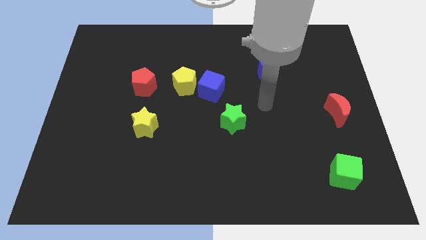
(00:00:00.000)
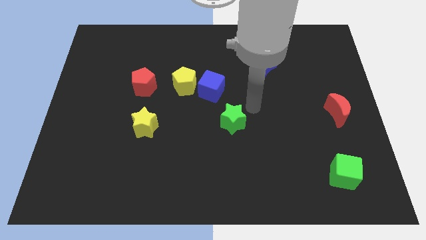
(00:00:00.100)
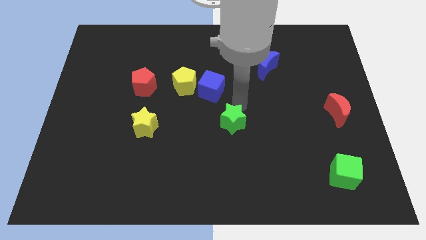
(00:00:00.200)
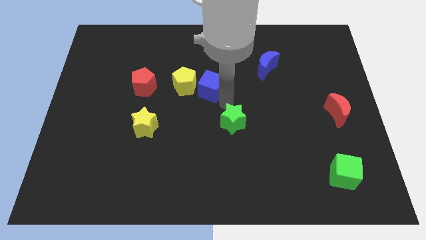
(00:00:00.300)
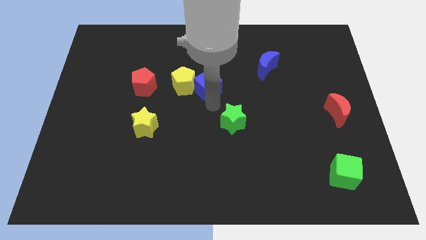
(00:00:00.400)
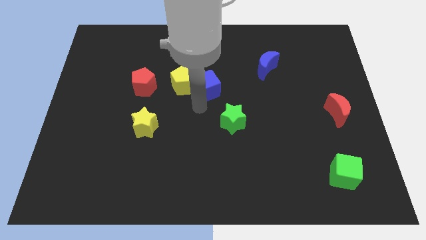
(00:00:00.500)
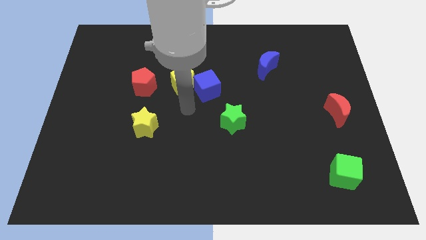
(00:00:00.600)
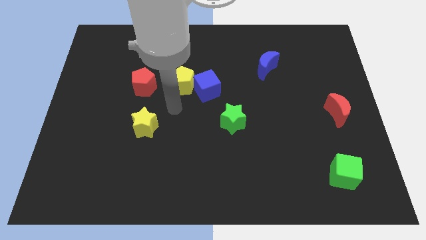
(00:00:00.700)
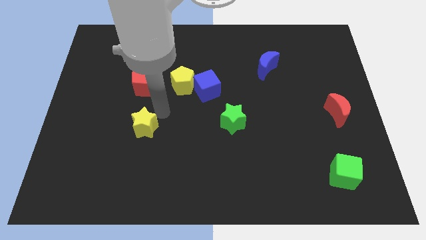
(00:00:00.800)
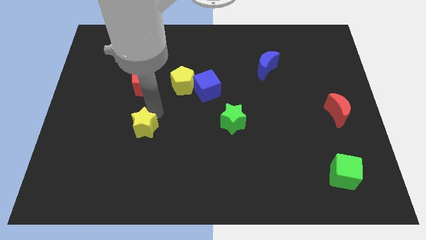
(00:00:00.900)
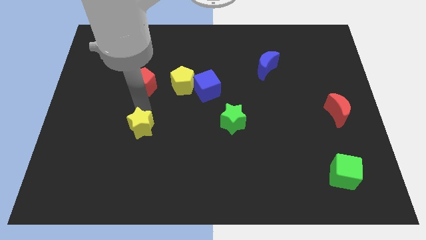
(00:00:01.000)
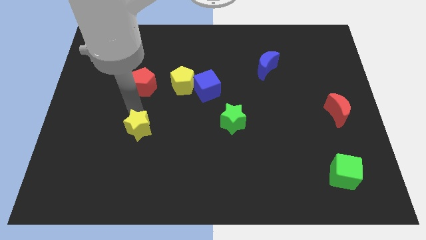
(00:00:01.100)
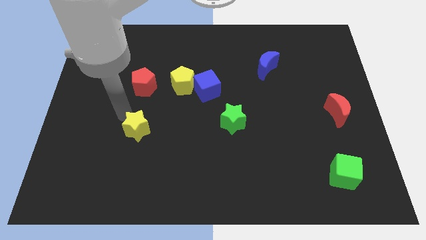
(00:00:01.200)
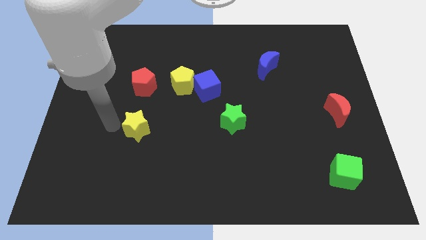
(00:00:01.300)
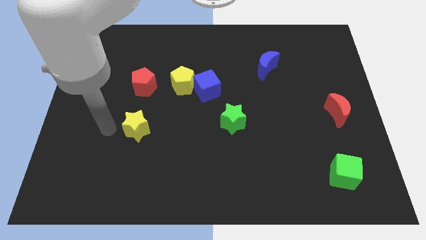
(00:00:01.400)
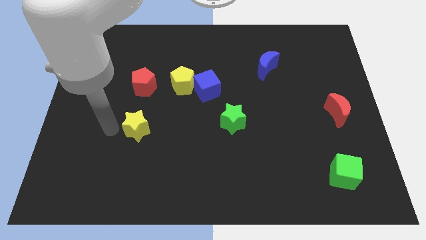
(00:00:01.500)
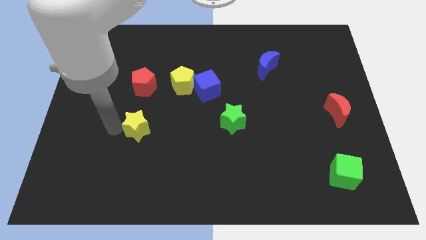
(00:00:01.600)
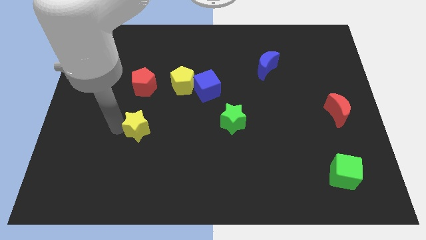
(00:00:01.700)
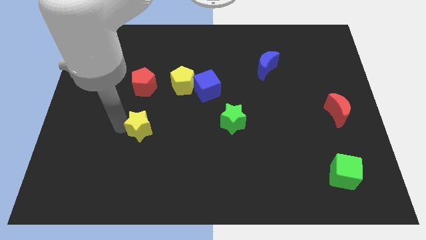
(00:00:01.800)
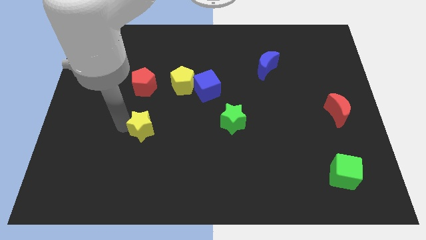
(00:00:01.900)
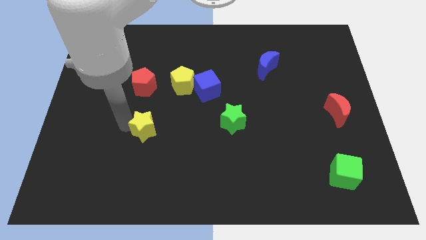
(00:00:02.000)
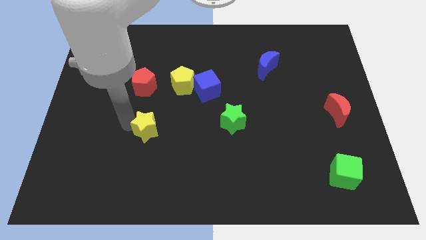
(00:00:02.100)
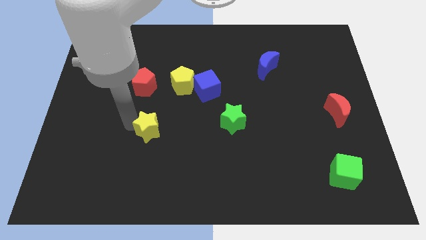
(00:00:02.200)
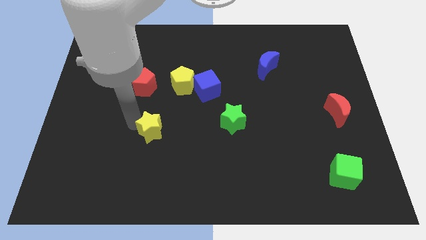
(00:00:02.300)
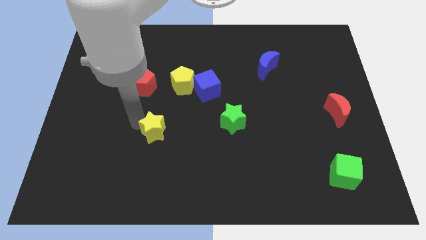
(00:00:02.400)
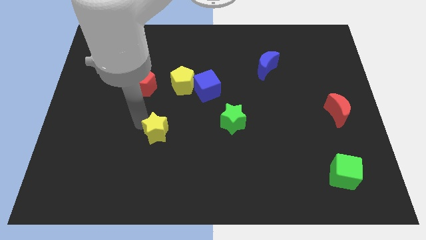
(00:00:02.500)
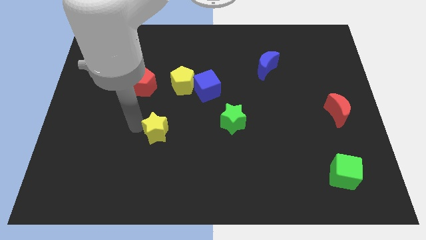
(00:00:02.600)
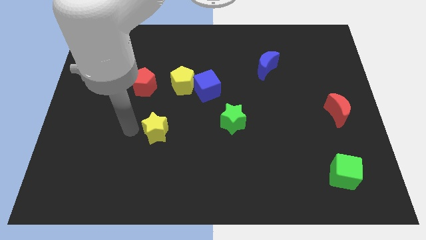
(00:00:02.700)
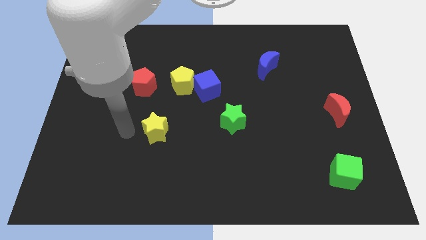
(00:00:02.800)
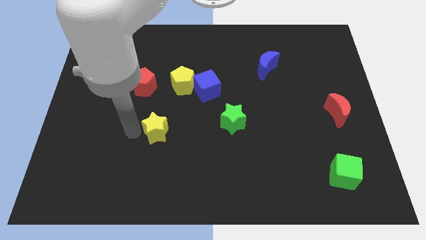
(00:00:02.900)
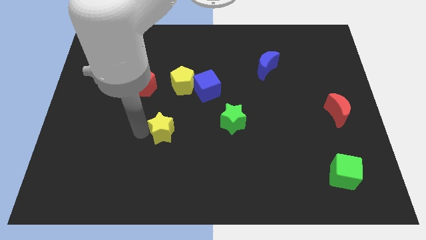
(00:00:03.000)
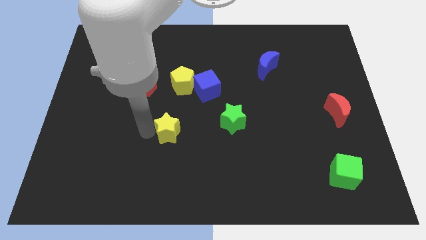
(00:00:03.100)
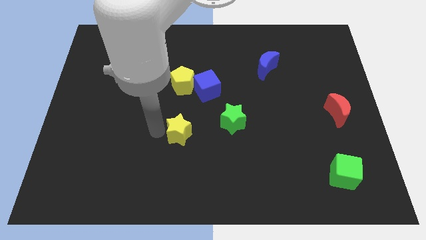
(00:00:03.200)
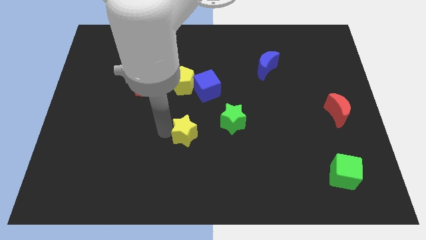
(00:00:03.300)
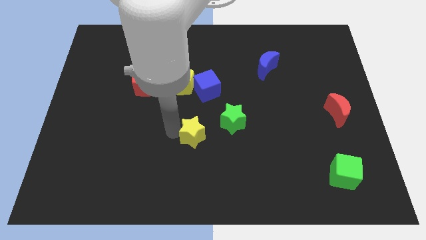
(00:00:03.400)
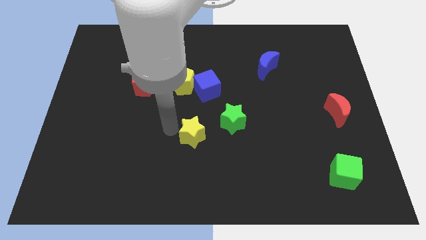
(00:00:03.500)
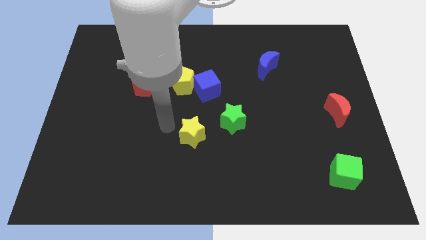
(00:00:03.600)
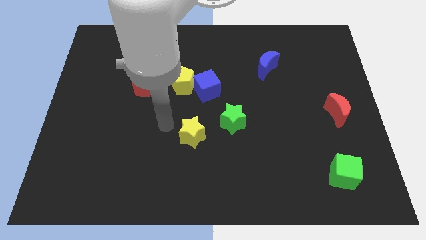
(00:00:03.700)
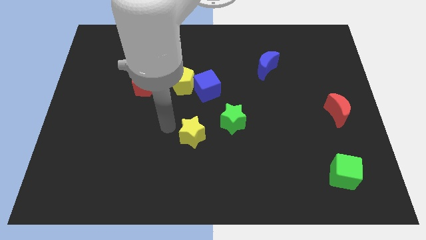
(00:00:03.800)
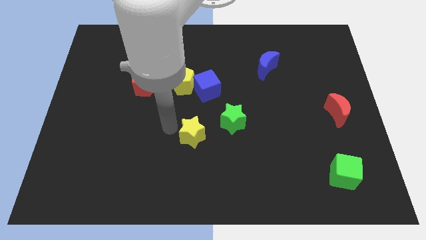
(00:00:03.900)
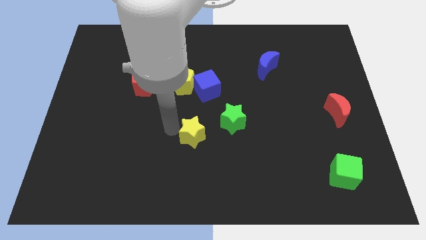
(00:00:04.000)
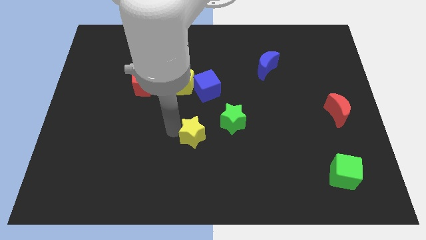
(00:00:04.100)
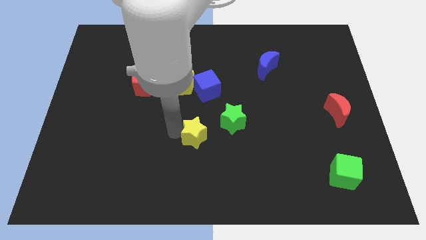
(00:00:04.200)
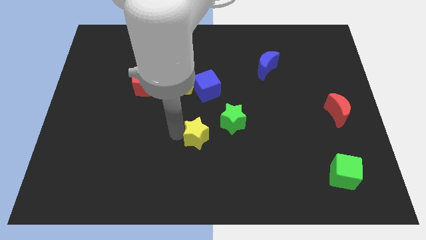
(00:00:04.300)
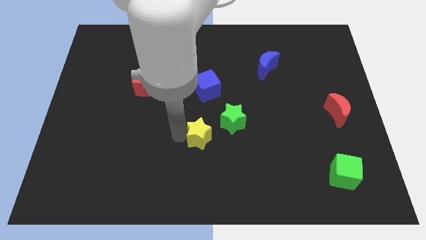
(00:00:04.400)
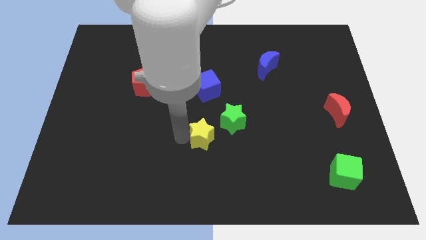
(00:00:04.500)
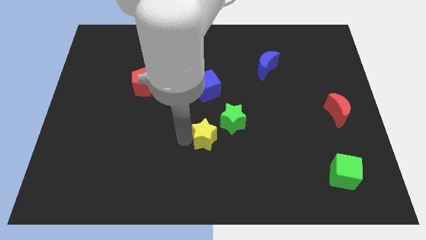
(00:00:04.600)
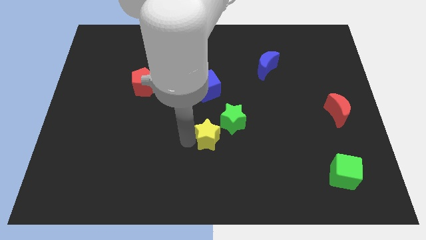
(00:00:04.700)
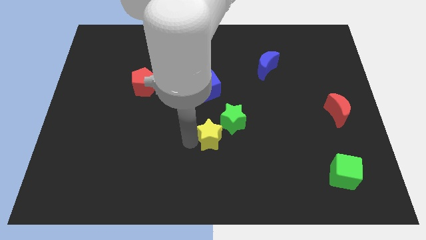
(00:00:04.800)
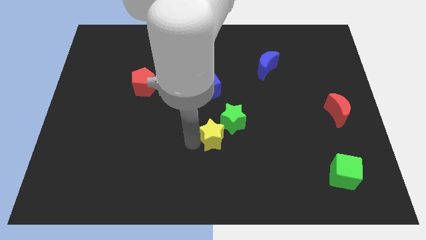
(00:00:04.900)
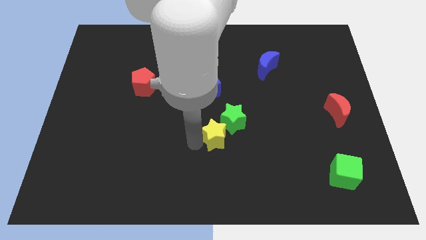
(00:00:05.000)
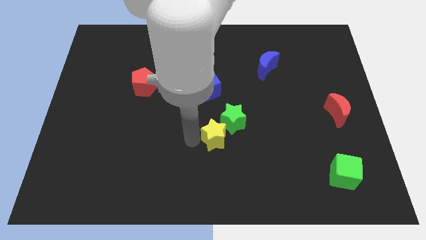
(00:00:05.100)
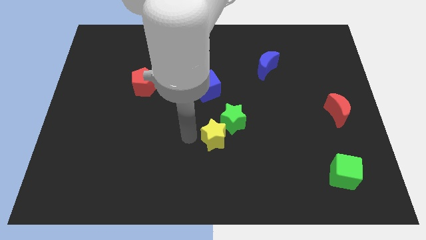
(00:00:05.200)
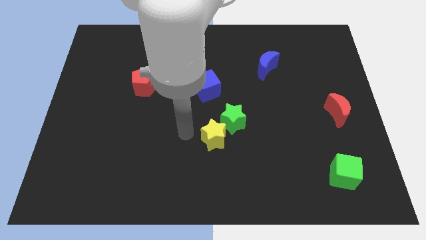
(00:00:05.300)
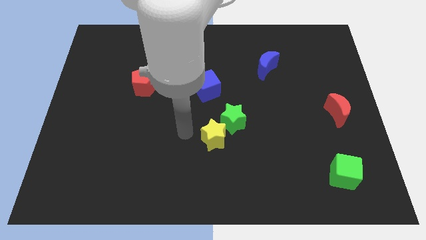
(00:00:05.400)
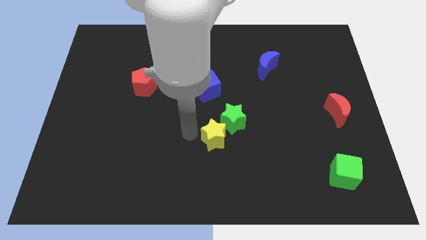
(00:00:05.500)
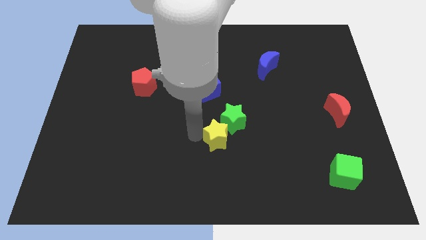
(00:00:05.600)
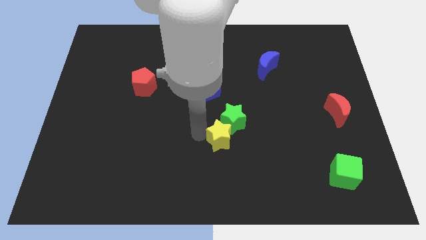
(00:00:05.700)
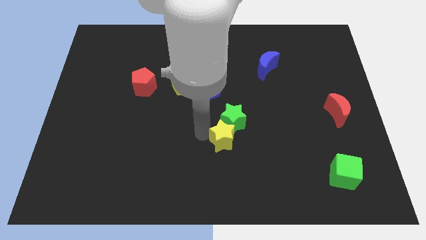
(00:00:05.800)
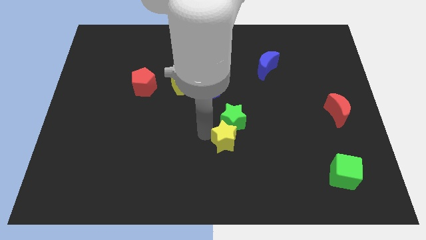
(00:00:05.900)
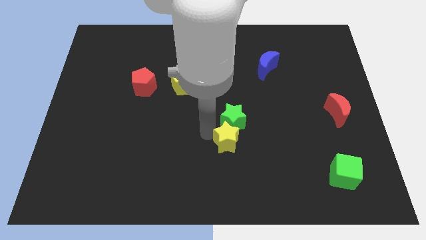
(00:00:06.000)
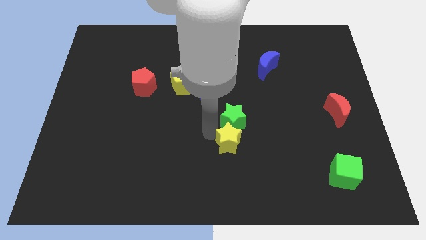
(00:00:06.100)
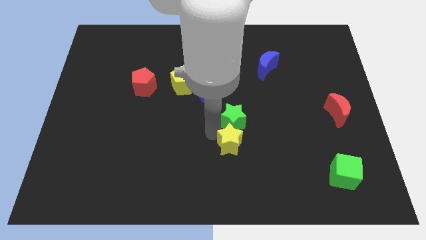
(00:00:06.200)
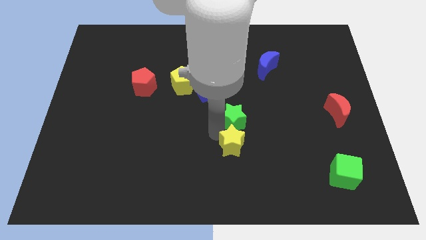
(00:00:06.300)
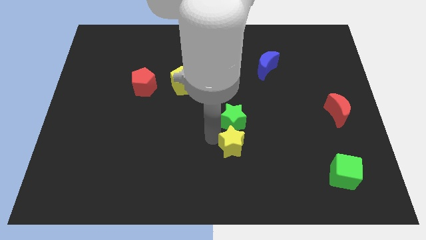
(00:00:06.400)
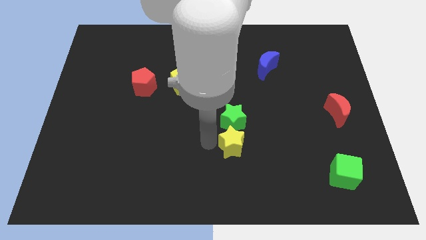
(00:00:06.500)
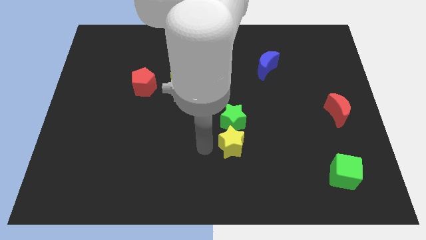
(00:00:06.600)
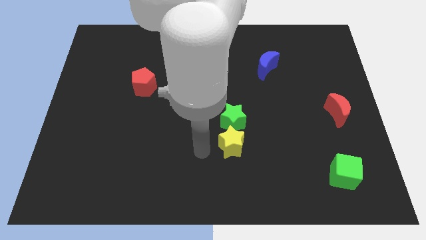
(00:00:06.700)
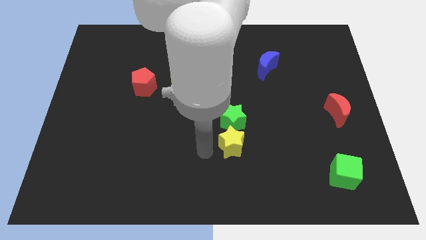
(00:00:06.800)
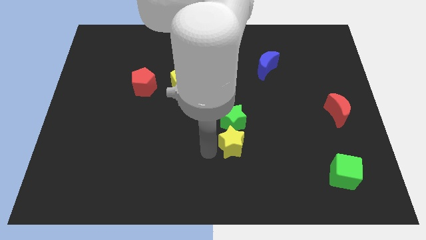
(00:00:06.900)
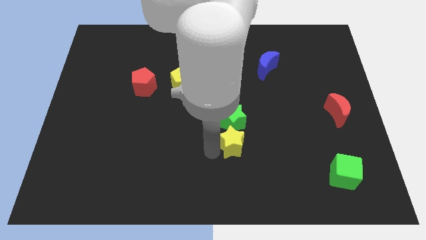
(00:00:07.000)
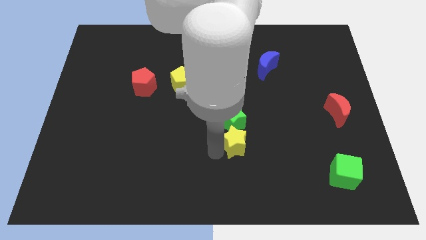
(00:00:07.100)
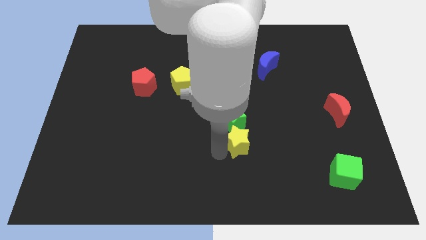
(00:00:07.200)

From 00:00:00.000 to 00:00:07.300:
slide the yellow star right

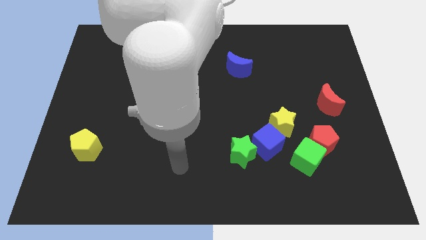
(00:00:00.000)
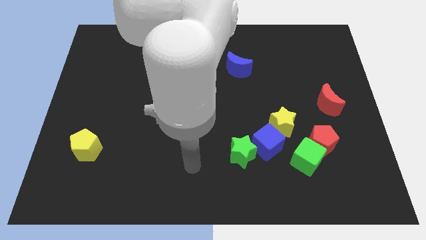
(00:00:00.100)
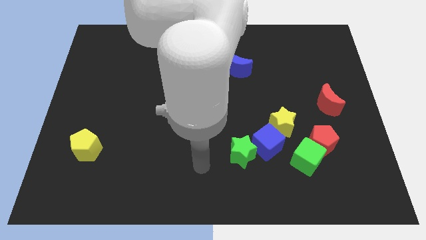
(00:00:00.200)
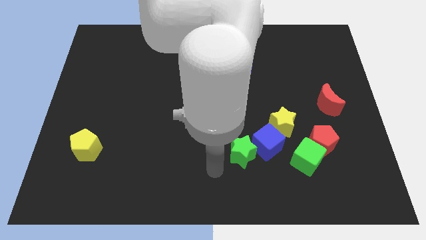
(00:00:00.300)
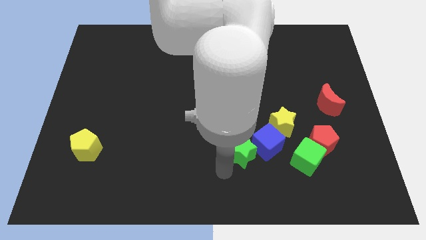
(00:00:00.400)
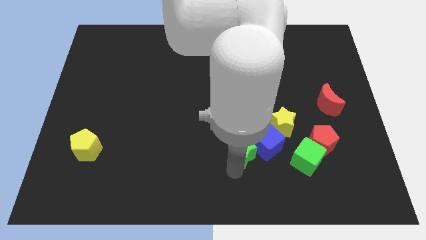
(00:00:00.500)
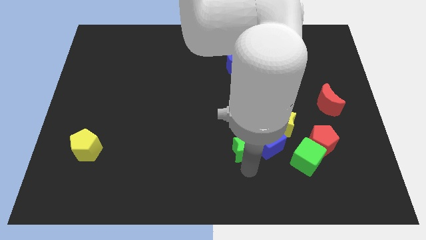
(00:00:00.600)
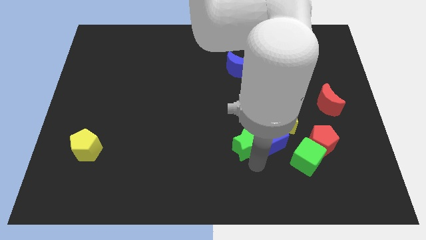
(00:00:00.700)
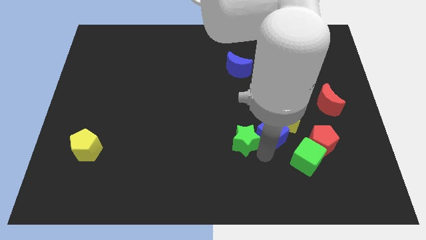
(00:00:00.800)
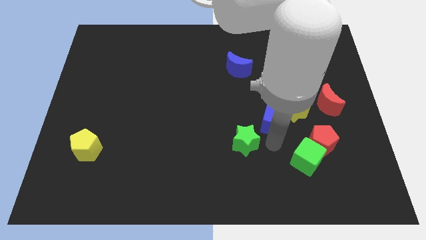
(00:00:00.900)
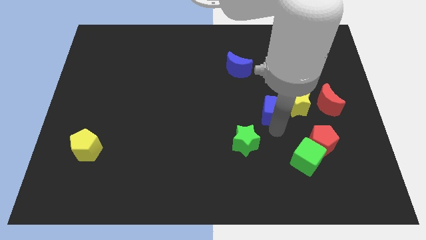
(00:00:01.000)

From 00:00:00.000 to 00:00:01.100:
move the yellow star upwards and right a little
